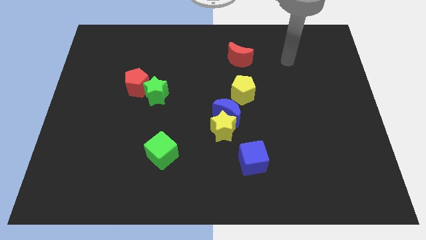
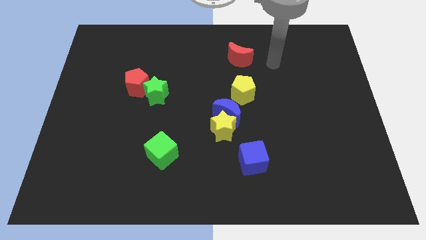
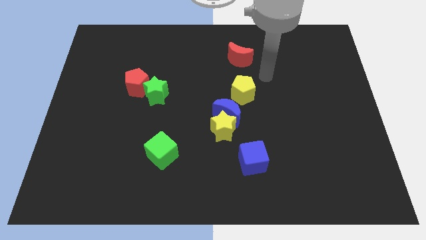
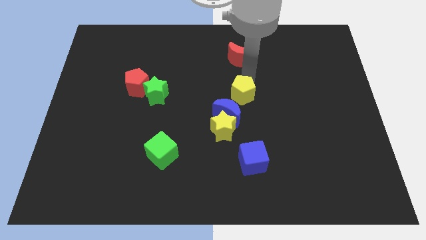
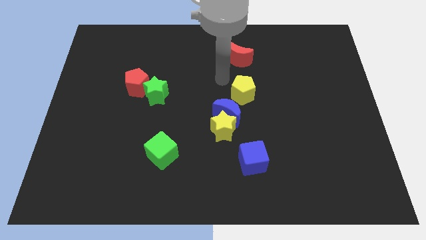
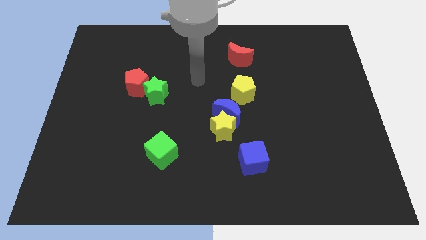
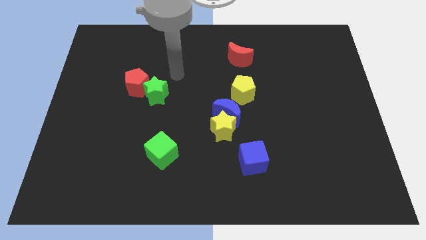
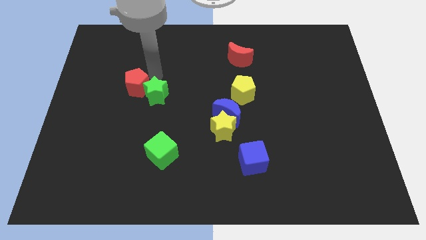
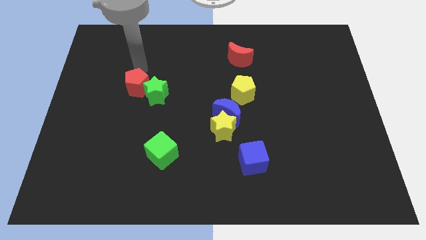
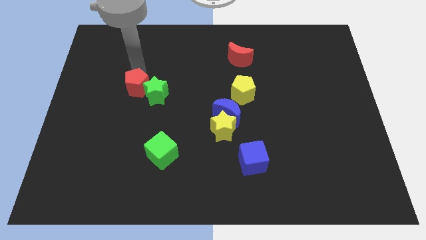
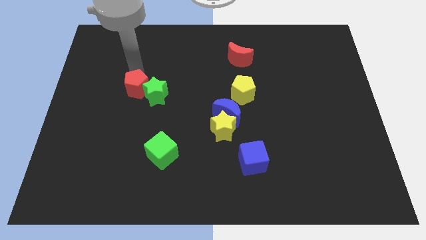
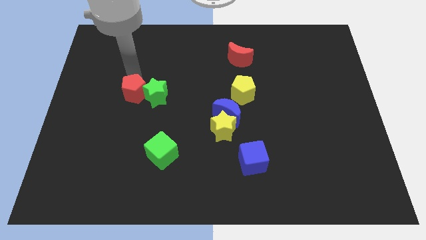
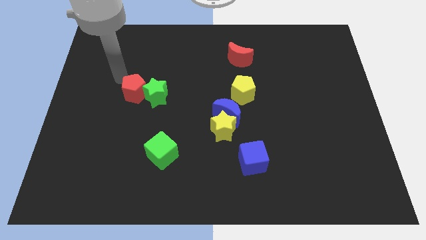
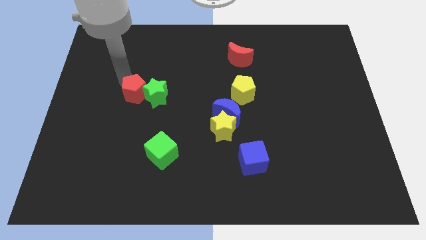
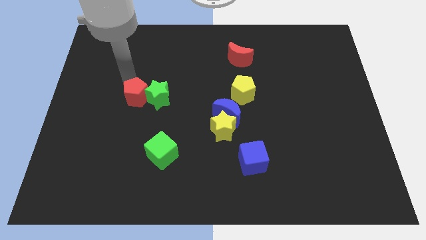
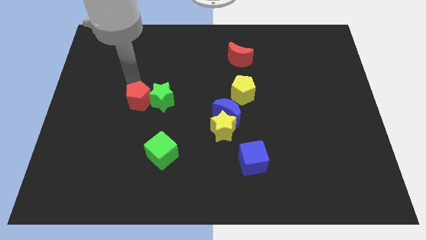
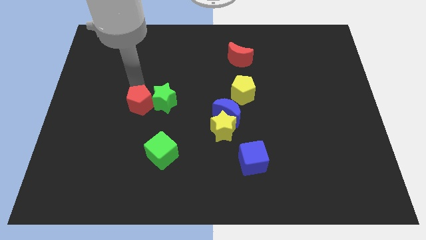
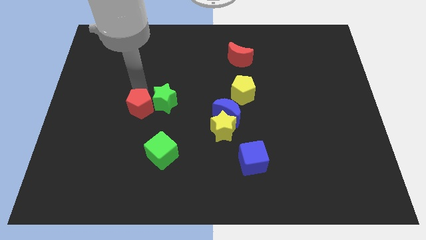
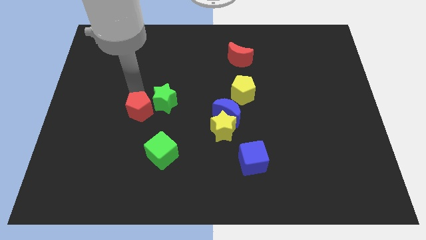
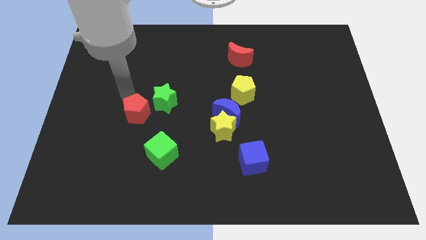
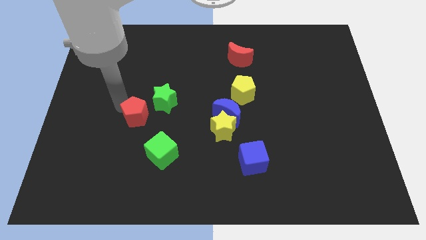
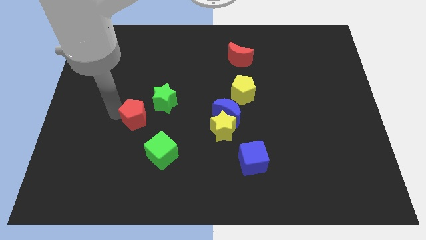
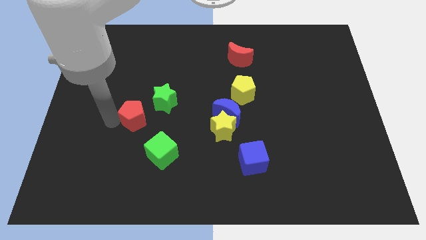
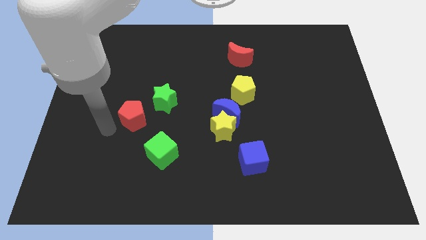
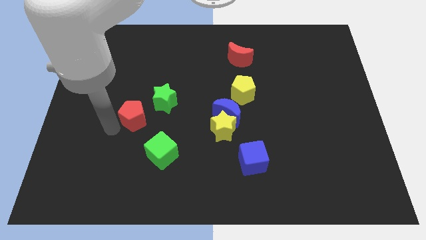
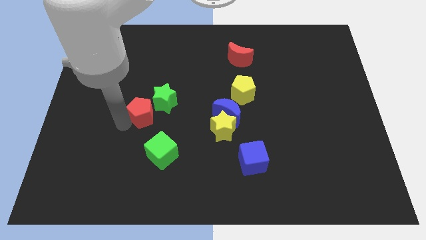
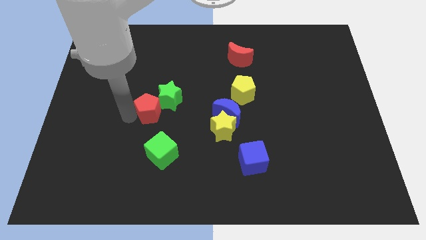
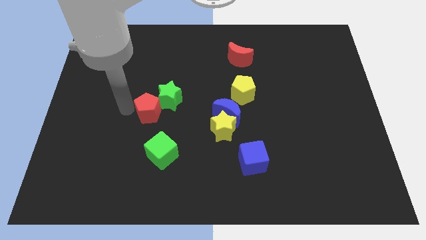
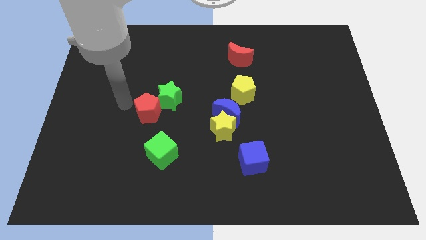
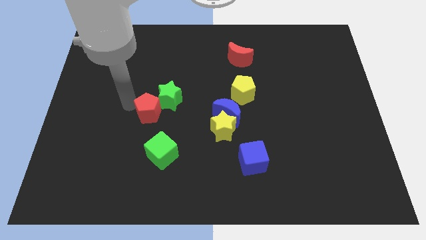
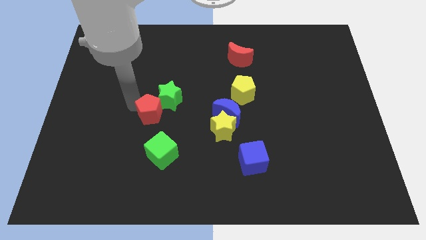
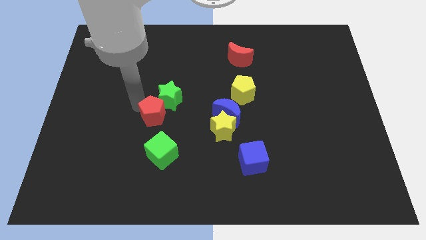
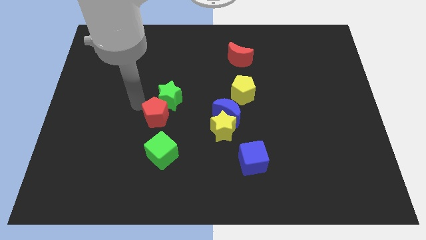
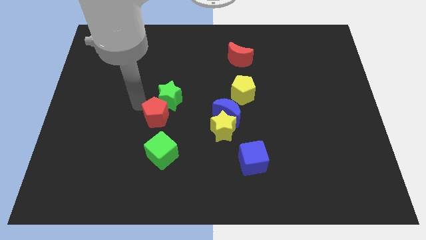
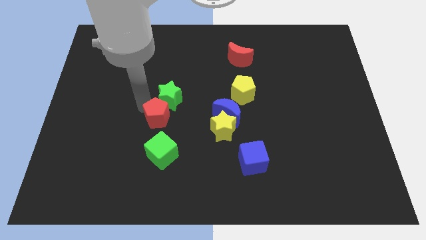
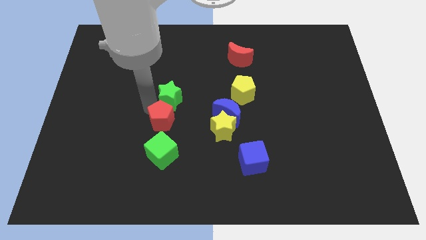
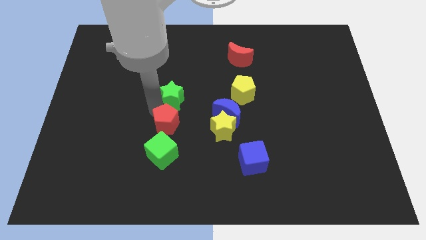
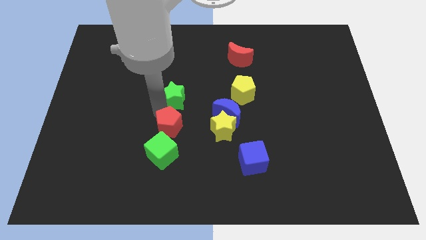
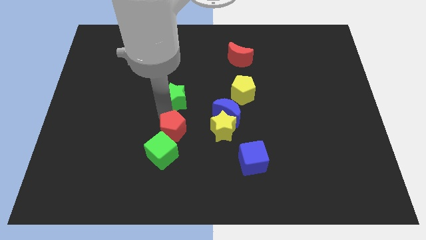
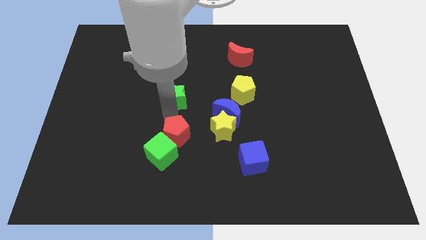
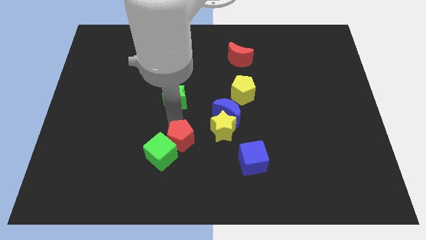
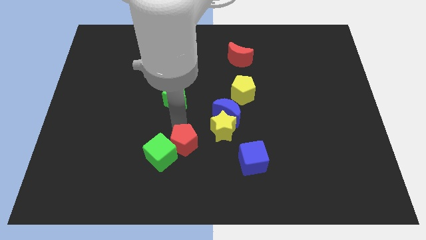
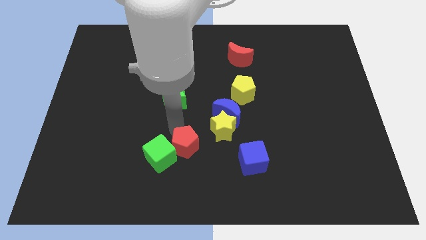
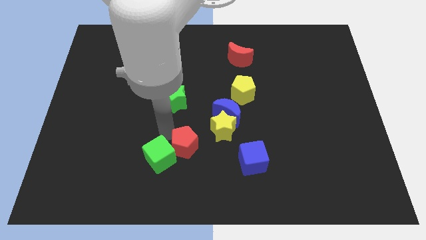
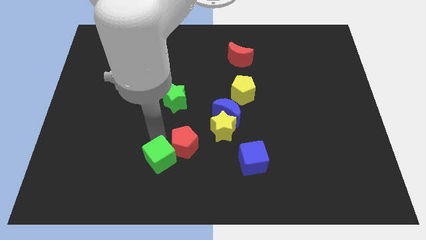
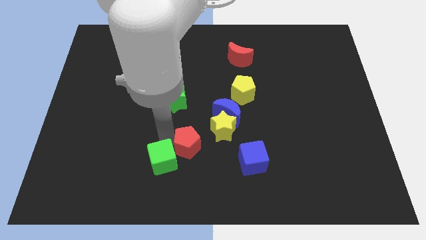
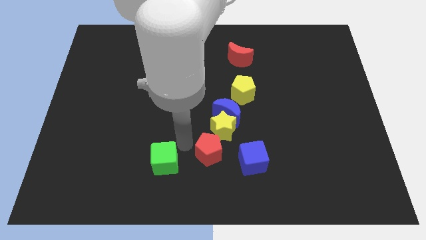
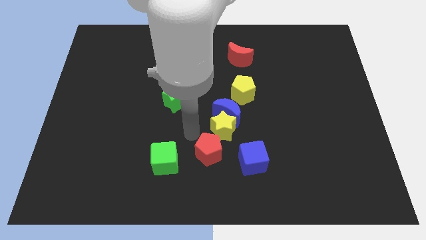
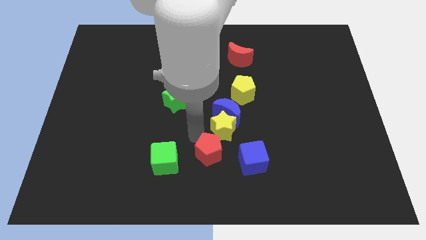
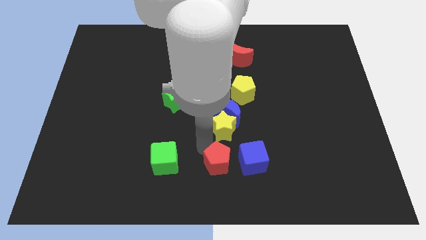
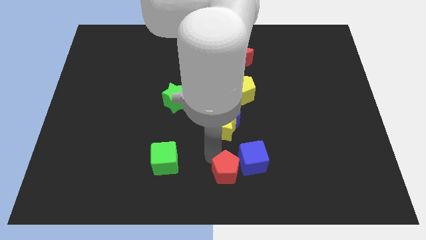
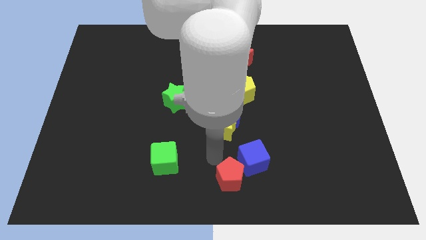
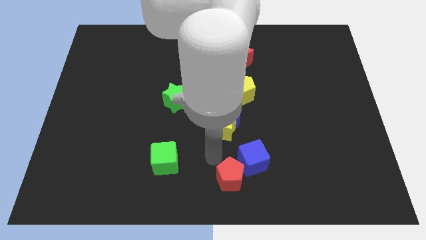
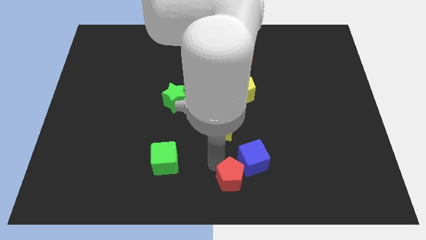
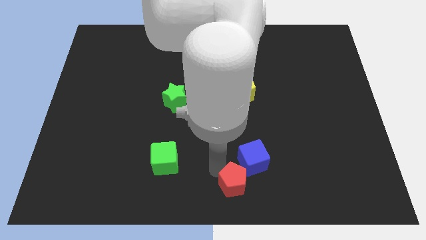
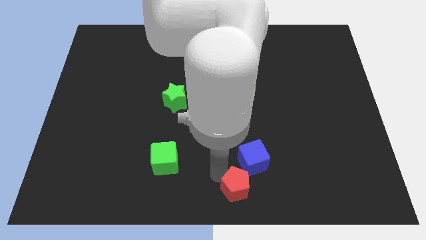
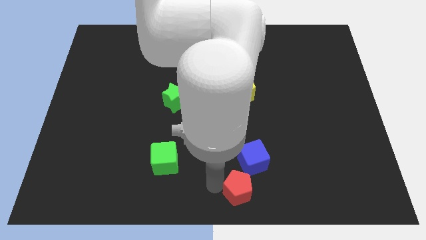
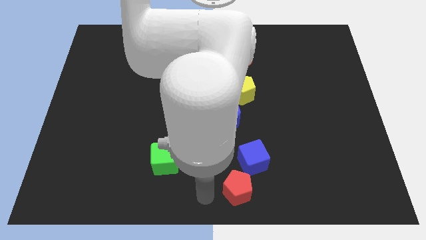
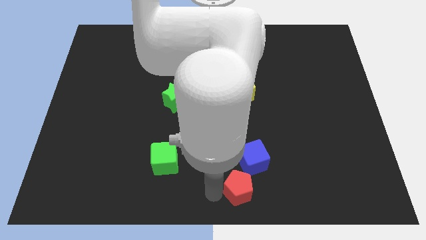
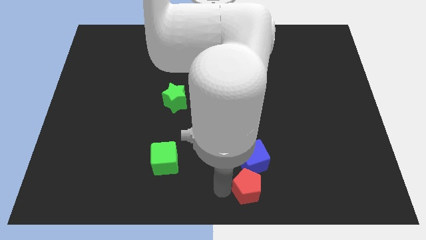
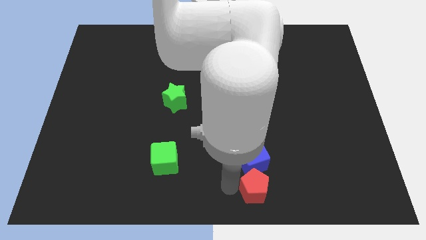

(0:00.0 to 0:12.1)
move the red pentagon diagonally down and to the right of the blue cube

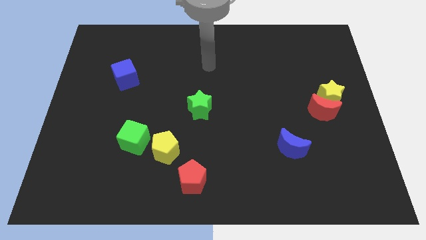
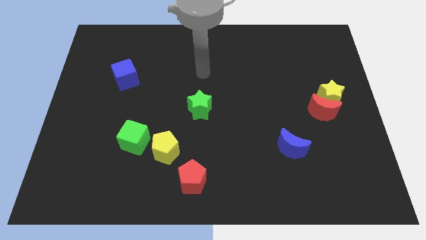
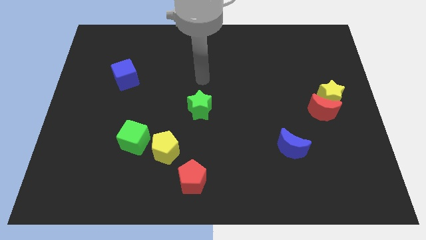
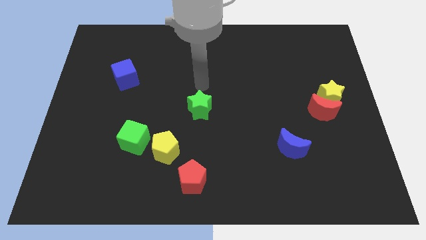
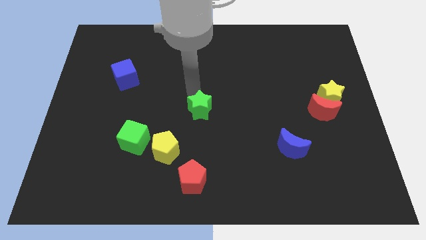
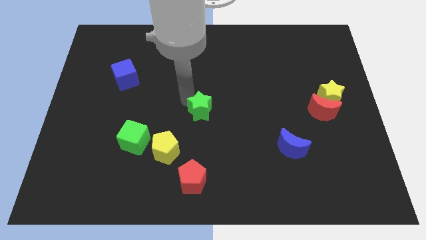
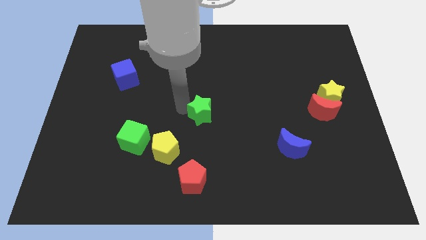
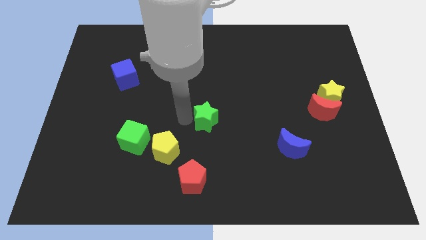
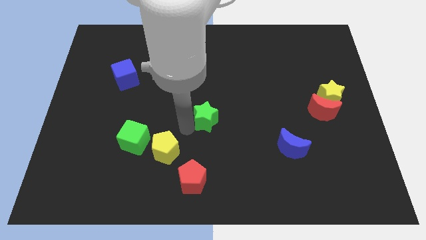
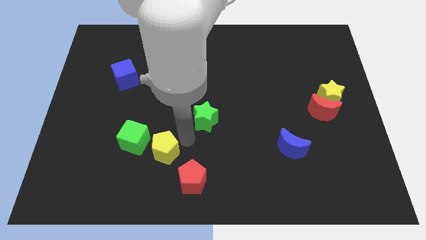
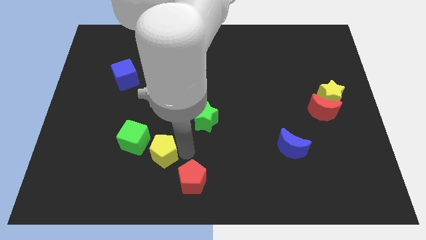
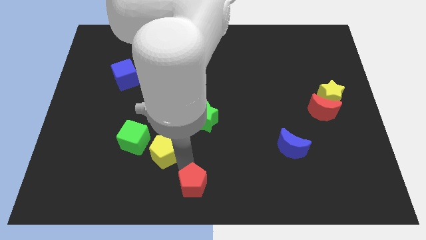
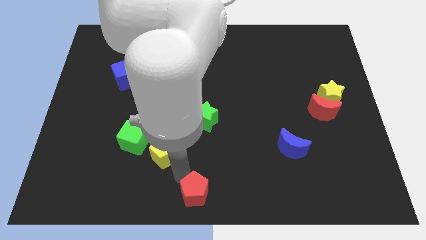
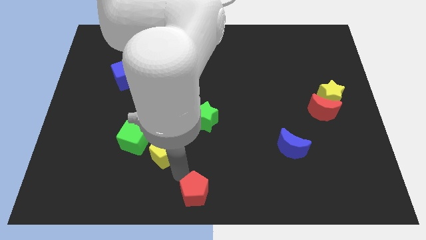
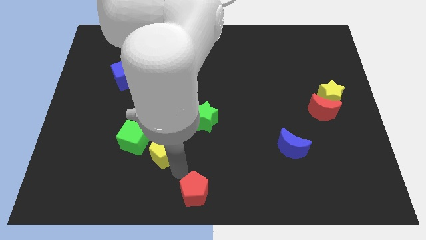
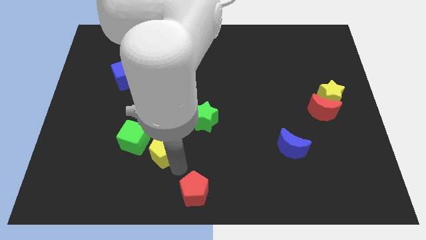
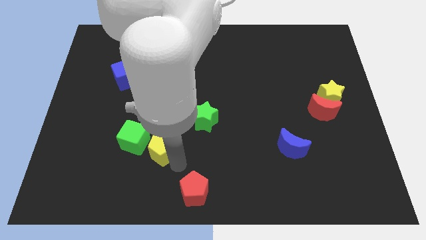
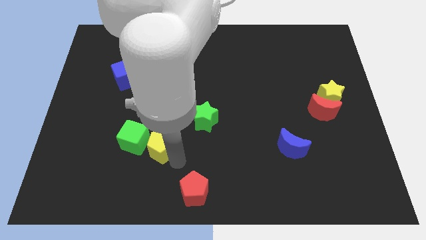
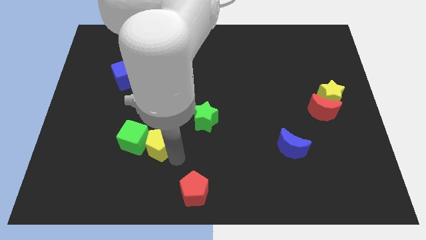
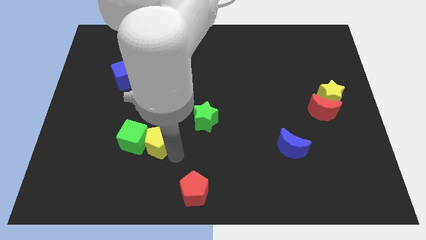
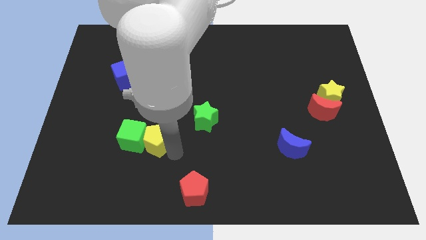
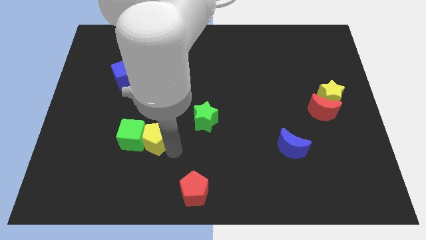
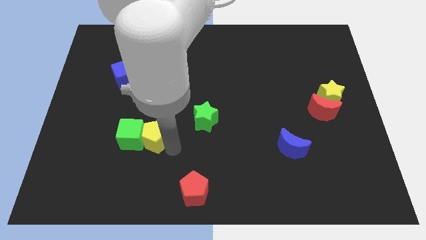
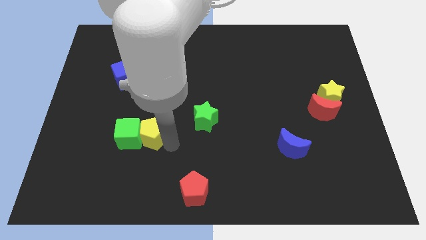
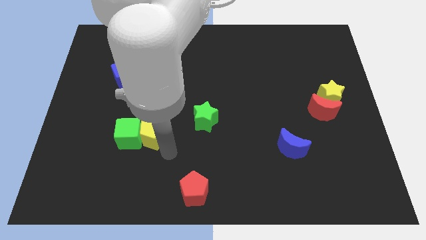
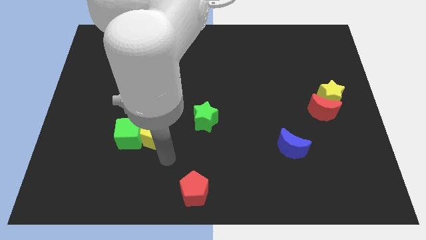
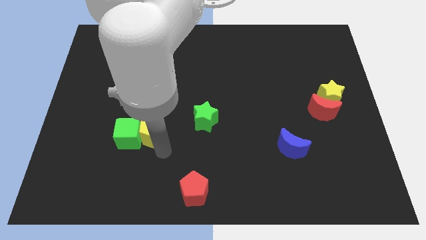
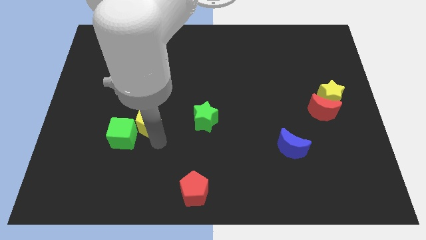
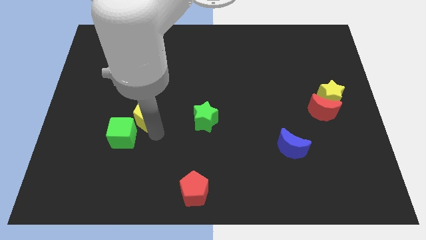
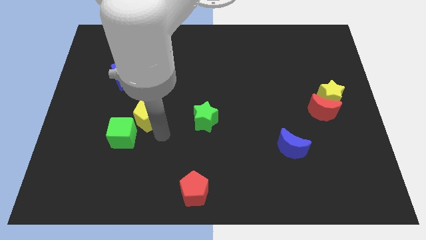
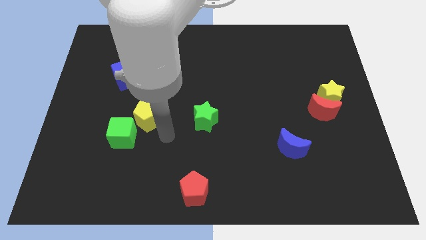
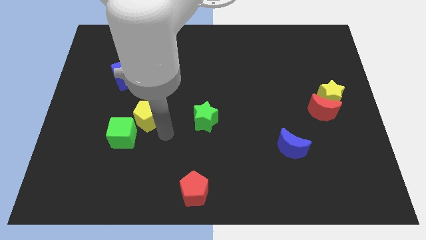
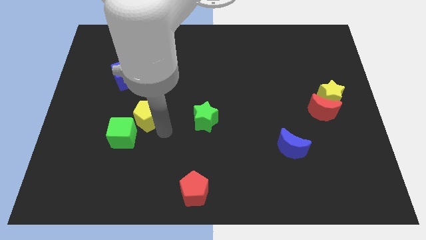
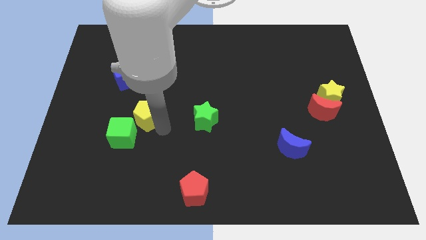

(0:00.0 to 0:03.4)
move the yellow pentagon to the top side of the green cube
